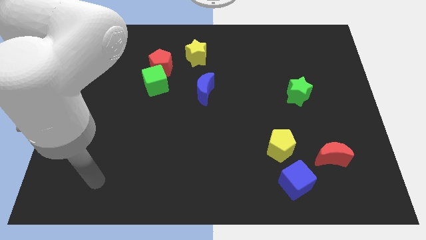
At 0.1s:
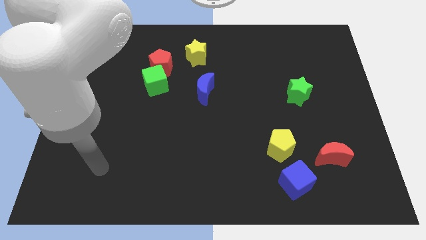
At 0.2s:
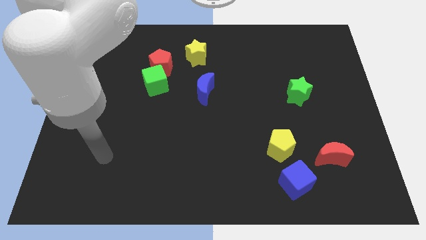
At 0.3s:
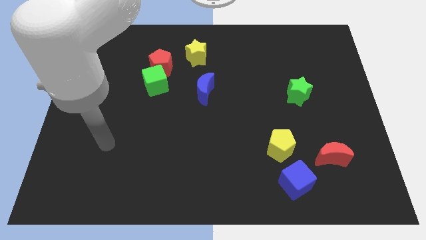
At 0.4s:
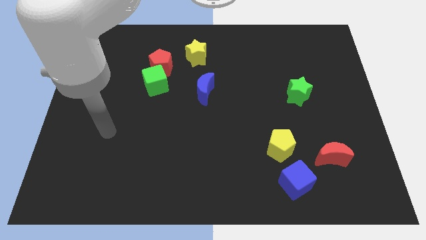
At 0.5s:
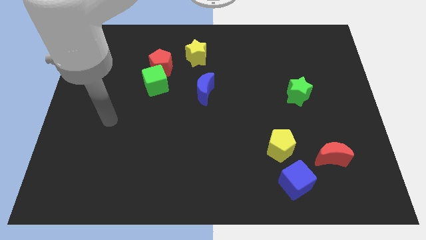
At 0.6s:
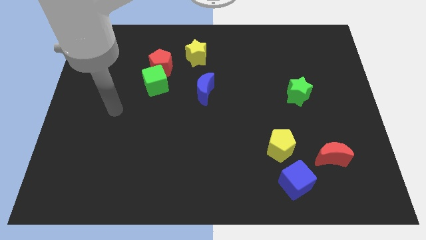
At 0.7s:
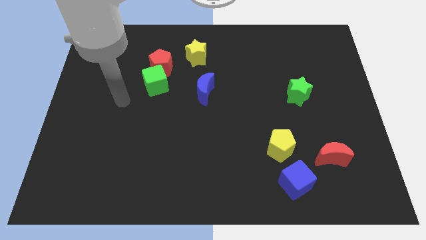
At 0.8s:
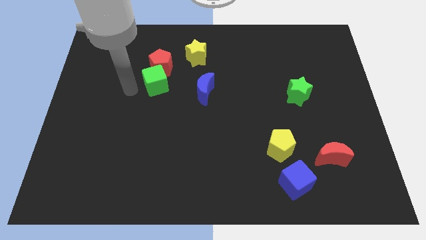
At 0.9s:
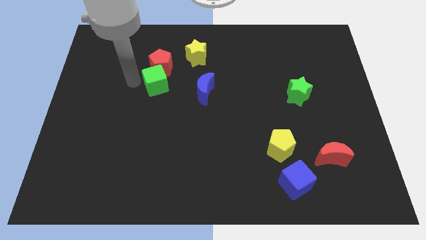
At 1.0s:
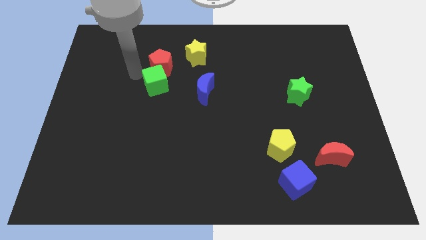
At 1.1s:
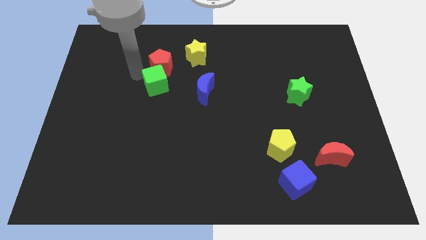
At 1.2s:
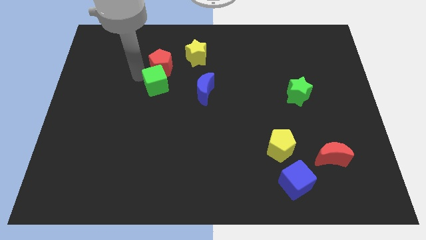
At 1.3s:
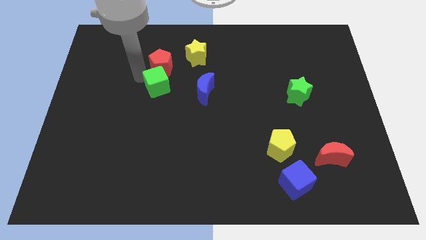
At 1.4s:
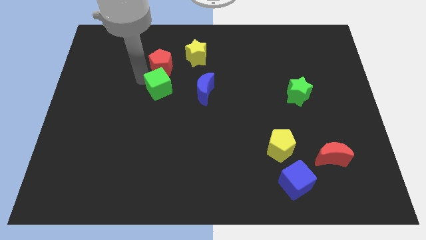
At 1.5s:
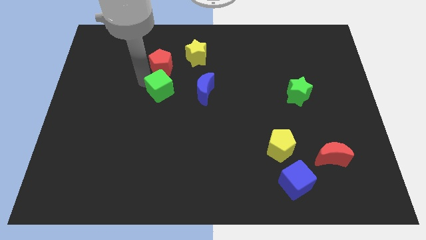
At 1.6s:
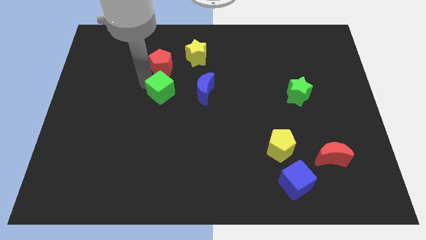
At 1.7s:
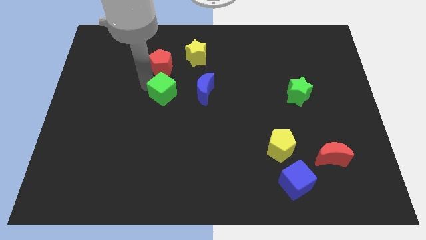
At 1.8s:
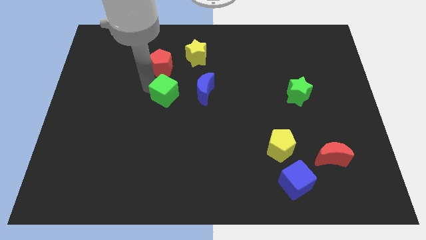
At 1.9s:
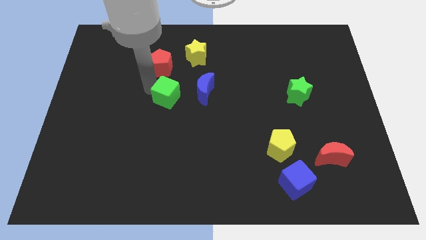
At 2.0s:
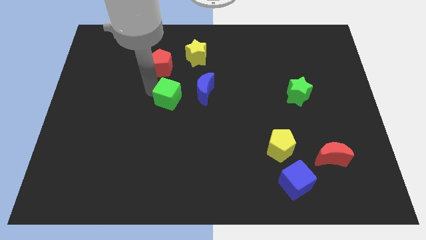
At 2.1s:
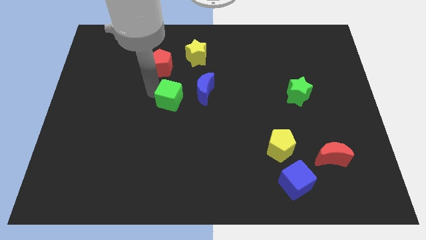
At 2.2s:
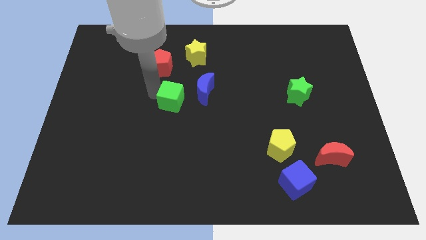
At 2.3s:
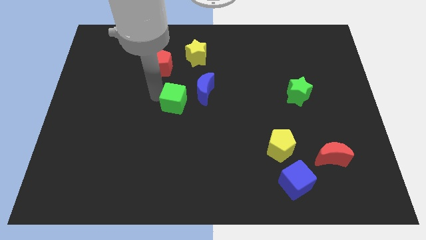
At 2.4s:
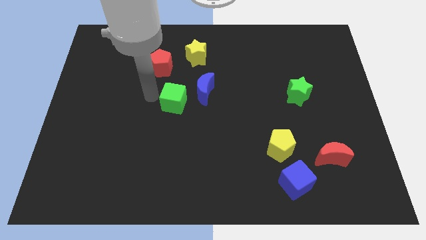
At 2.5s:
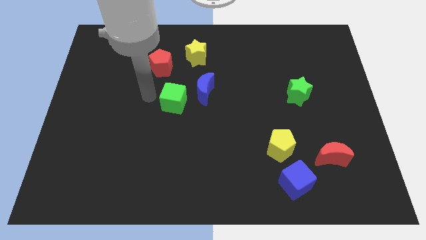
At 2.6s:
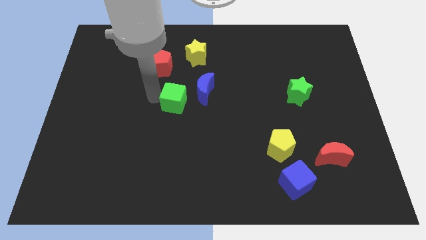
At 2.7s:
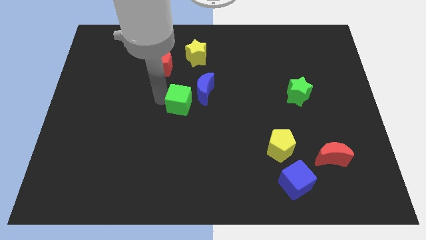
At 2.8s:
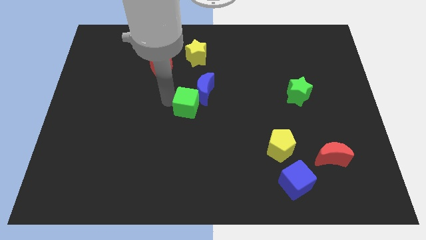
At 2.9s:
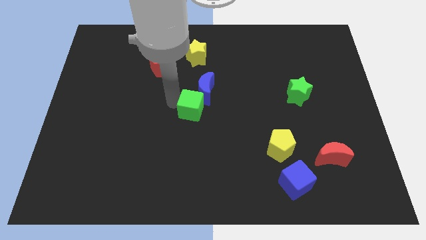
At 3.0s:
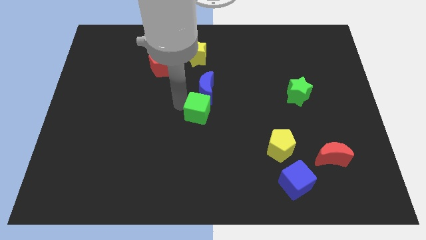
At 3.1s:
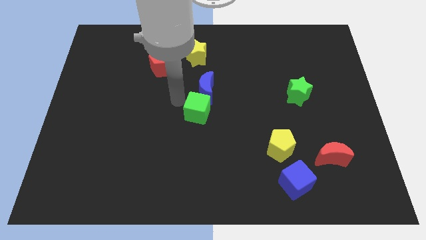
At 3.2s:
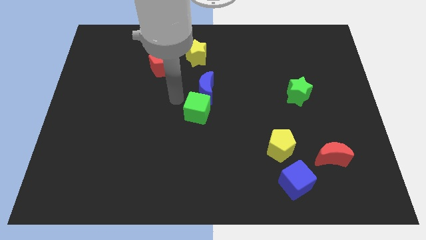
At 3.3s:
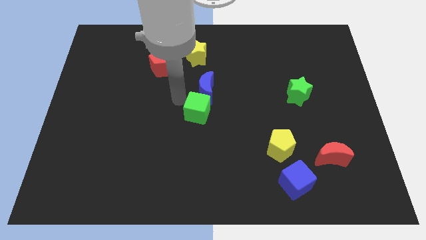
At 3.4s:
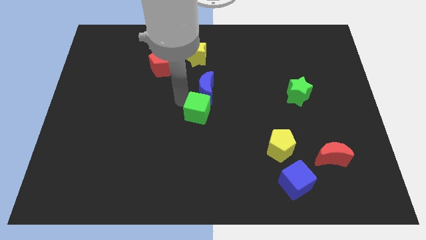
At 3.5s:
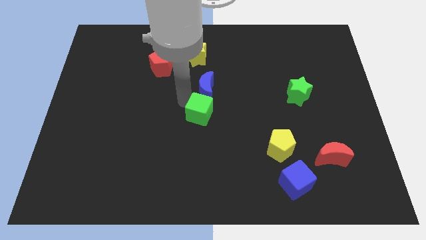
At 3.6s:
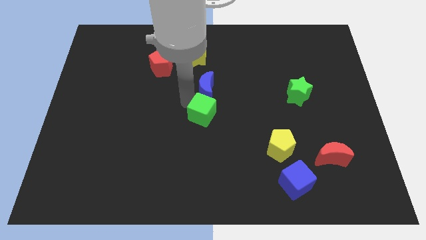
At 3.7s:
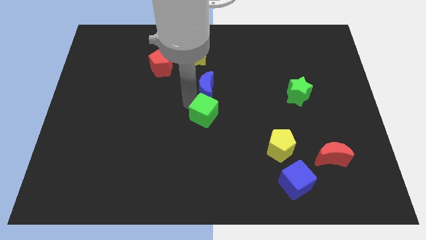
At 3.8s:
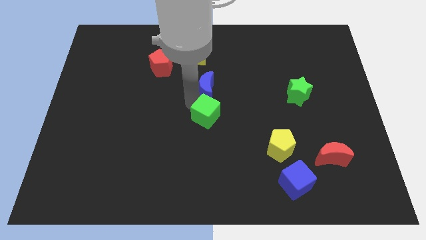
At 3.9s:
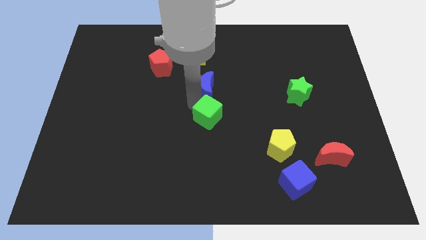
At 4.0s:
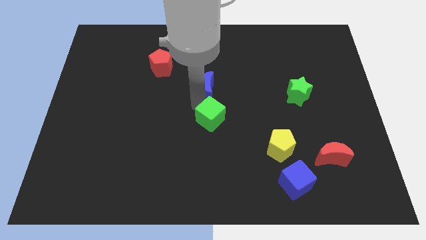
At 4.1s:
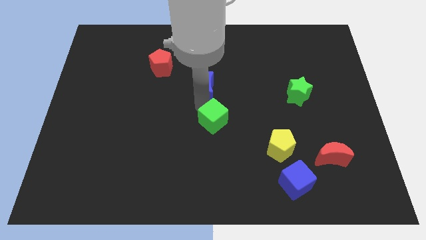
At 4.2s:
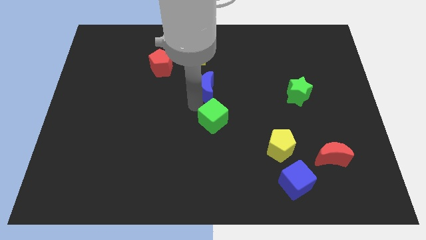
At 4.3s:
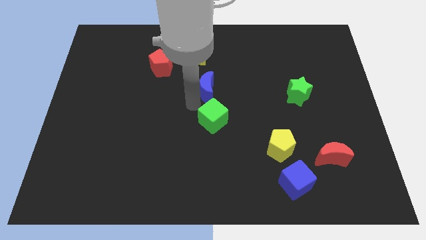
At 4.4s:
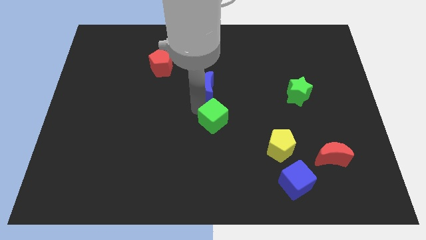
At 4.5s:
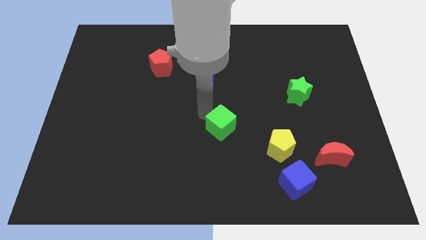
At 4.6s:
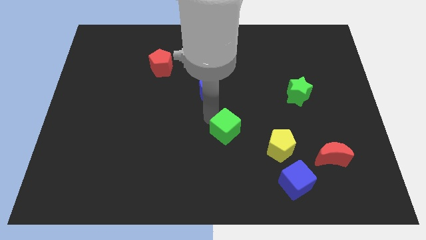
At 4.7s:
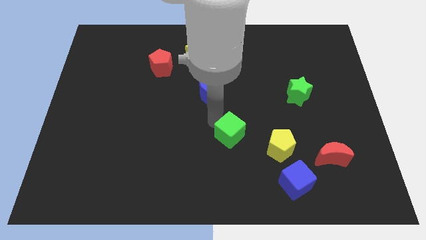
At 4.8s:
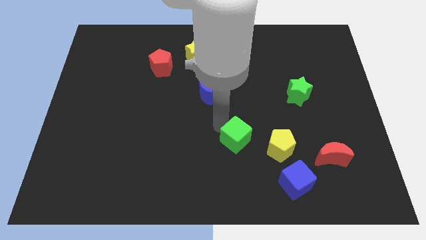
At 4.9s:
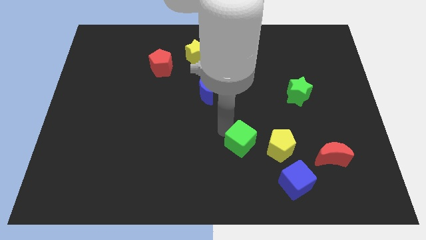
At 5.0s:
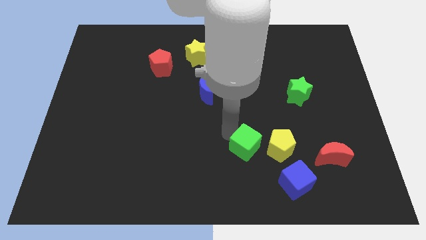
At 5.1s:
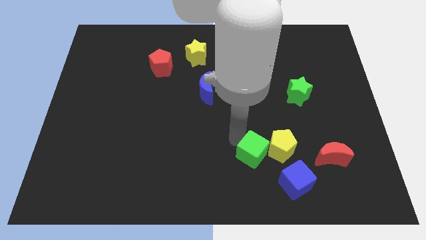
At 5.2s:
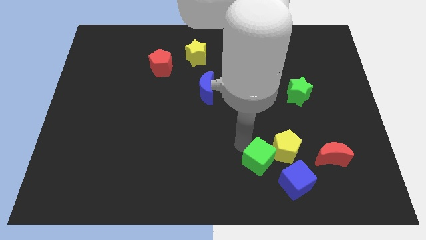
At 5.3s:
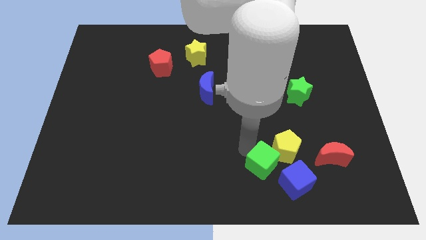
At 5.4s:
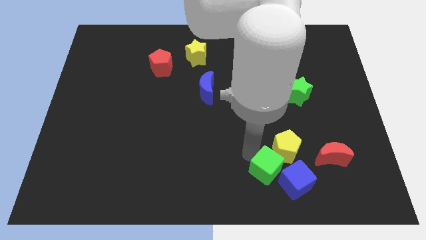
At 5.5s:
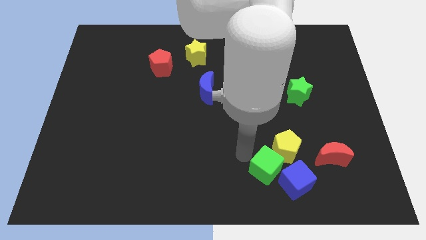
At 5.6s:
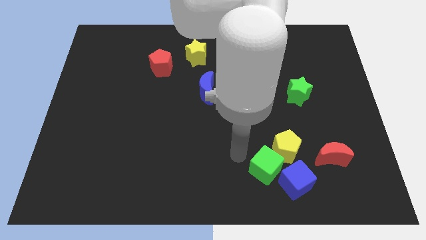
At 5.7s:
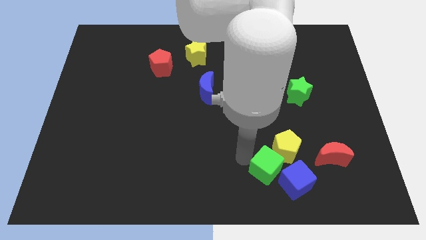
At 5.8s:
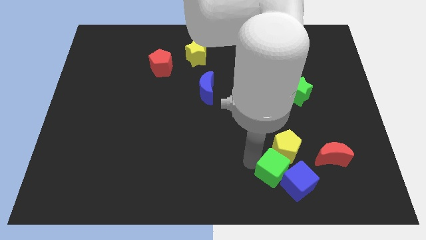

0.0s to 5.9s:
put the green cube next to the blue cube

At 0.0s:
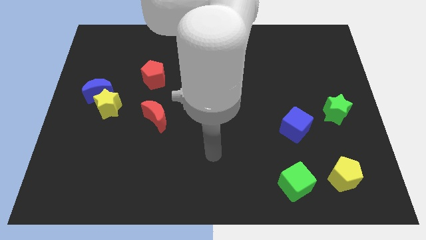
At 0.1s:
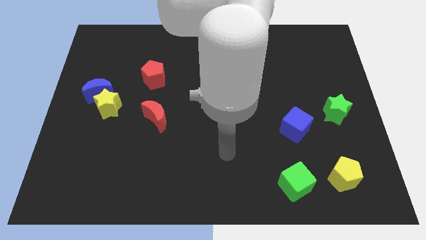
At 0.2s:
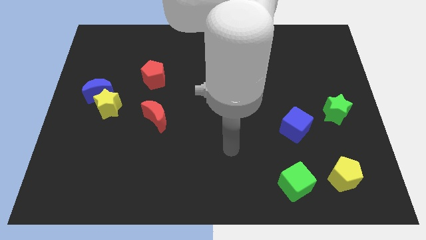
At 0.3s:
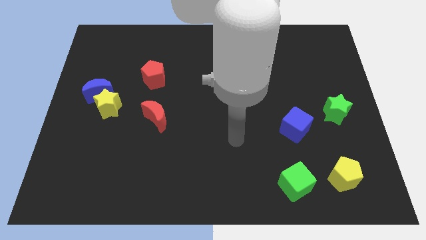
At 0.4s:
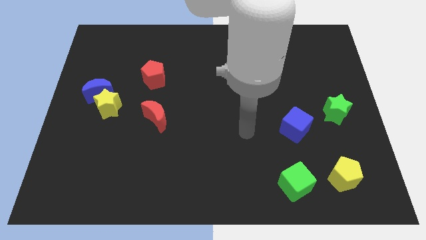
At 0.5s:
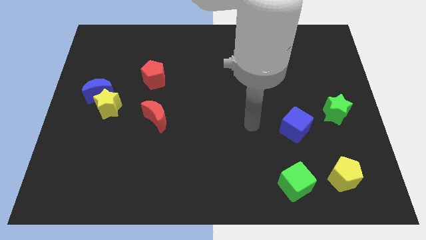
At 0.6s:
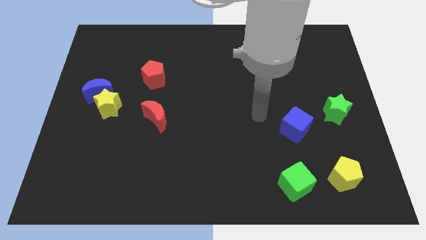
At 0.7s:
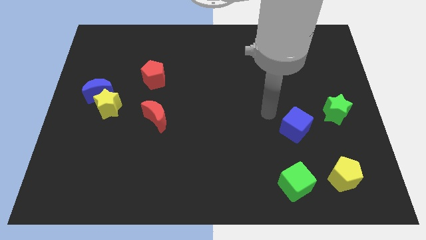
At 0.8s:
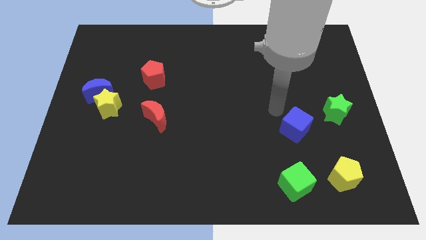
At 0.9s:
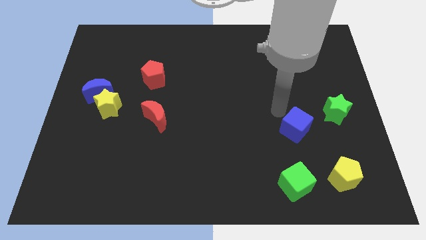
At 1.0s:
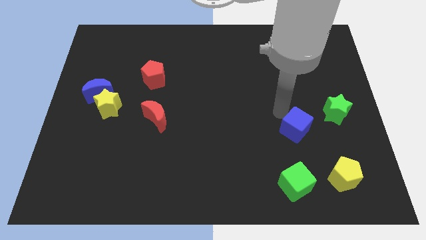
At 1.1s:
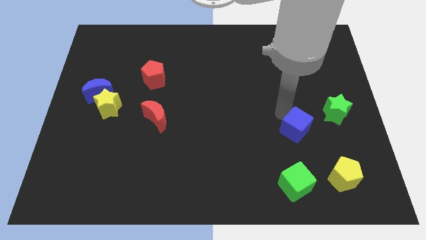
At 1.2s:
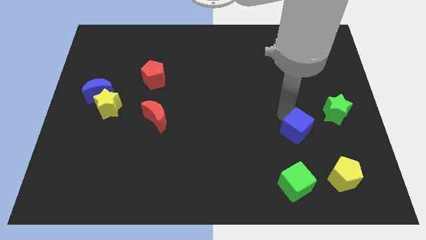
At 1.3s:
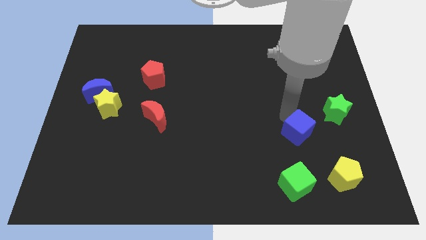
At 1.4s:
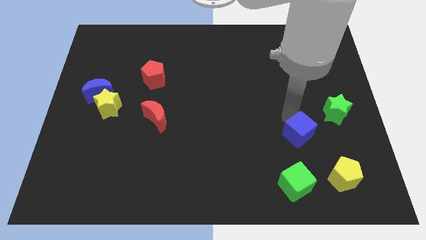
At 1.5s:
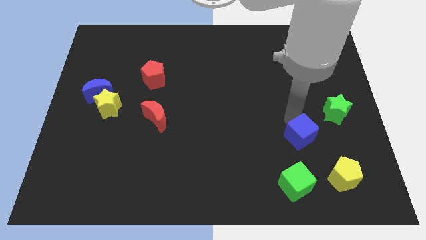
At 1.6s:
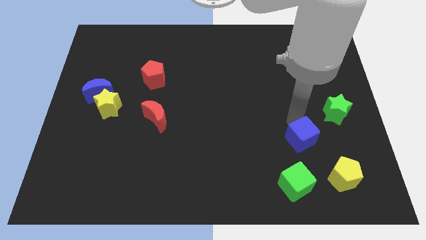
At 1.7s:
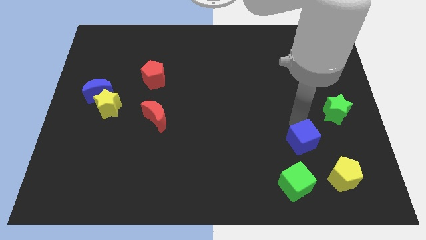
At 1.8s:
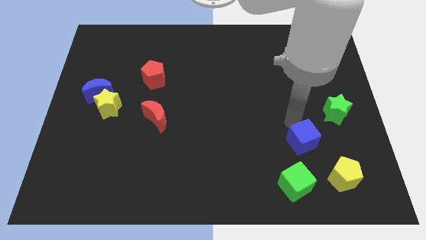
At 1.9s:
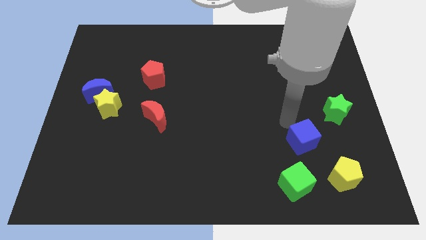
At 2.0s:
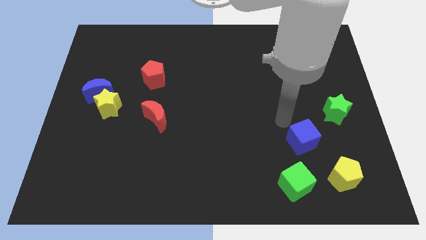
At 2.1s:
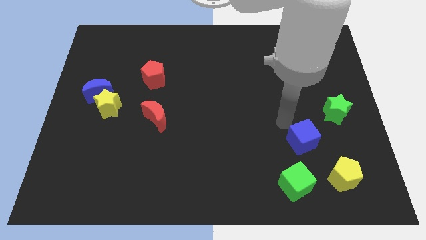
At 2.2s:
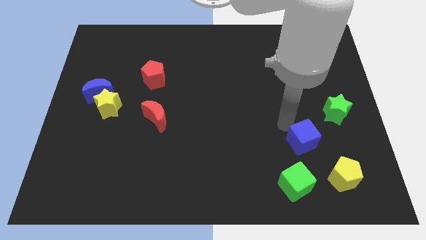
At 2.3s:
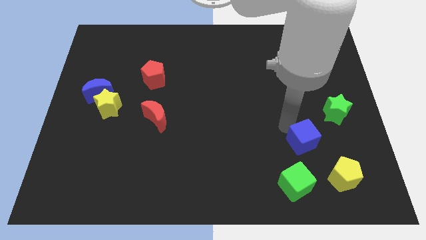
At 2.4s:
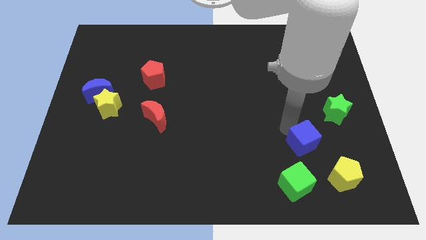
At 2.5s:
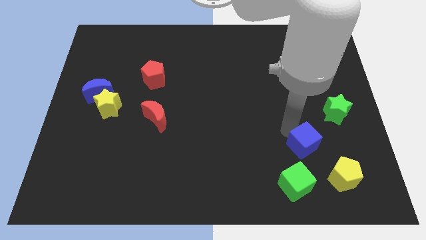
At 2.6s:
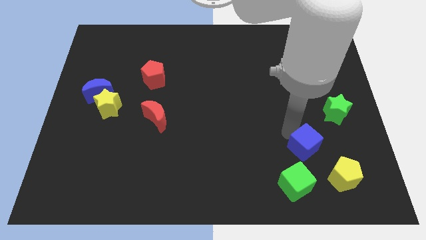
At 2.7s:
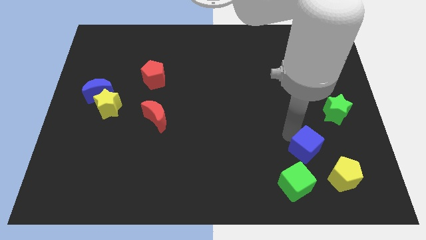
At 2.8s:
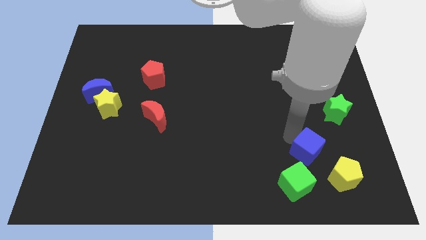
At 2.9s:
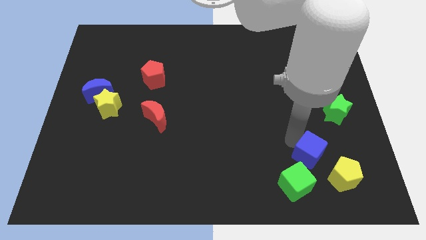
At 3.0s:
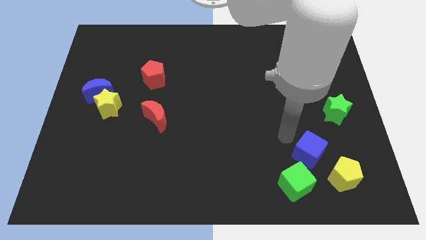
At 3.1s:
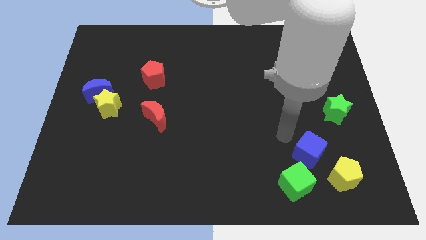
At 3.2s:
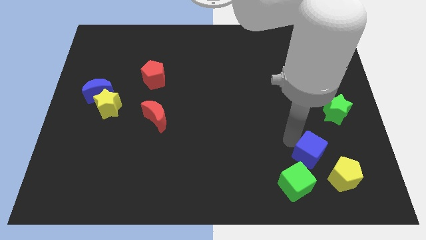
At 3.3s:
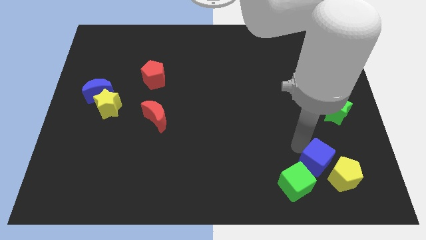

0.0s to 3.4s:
push the blue cube next to the yellow pentagon
